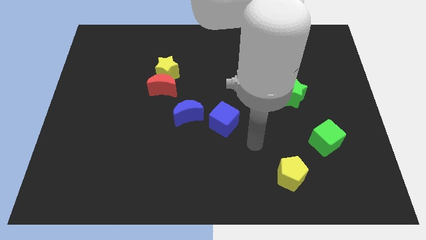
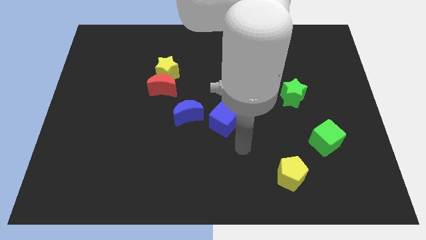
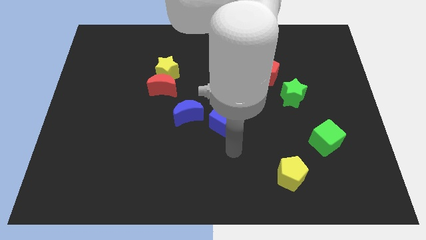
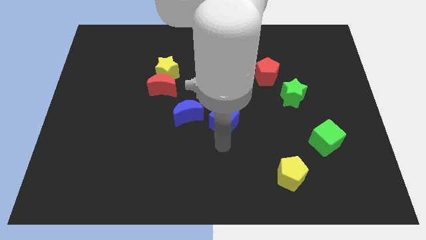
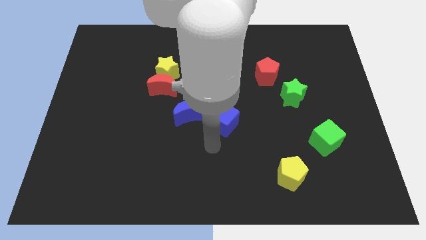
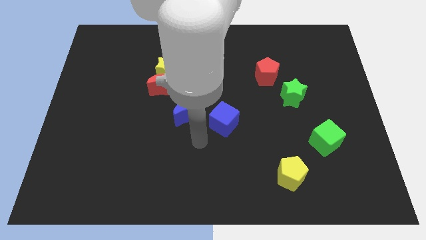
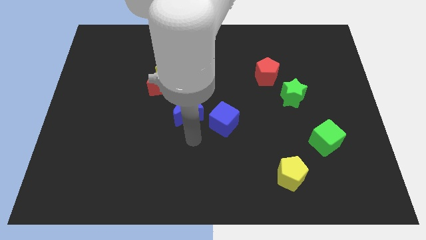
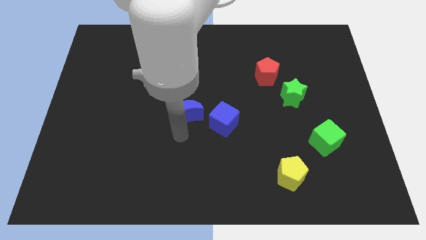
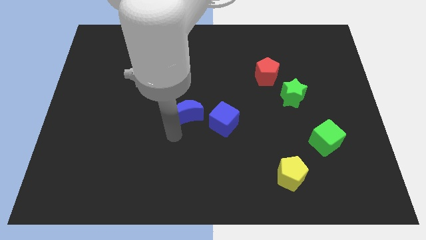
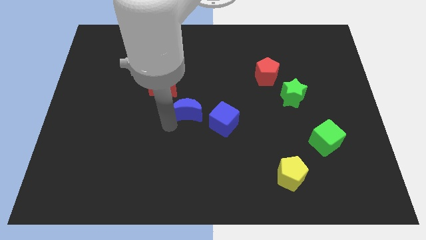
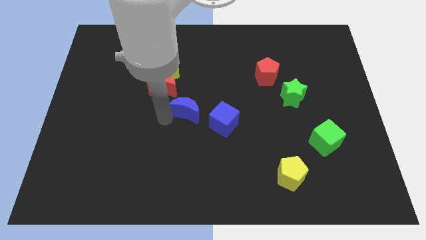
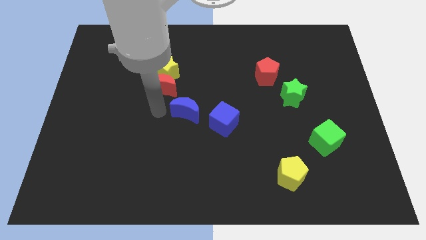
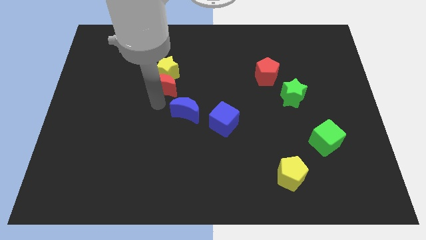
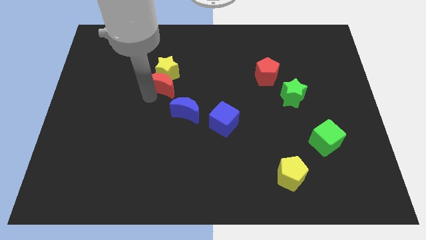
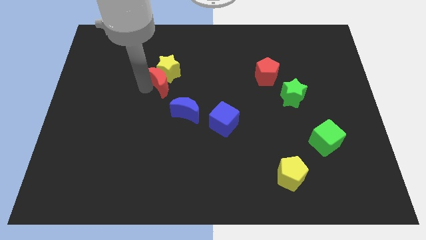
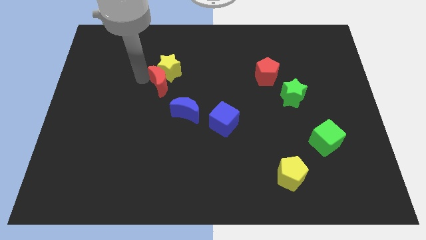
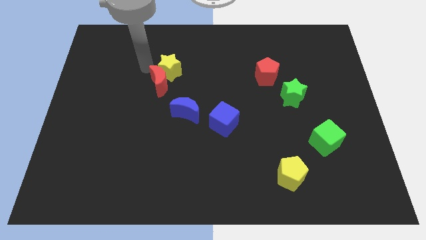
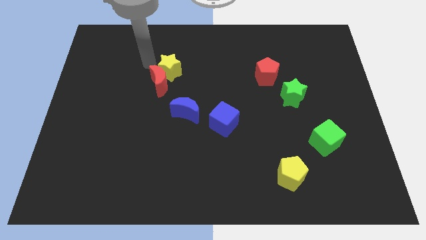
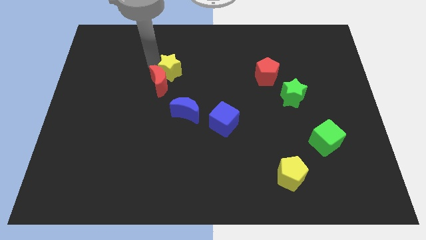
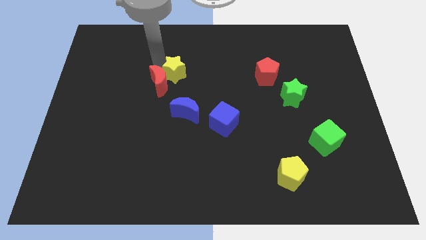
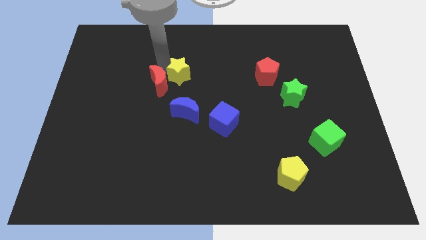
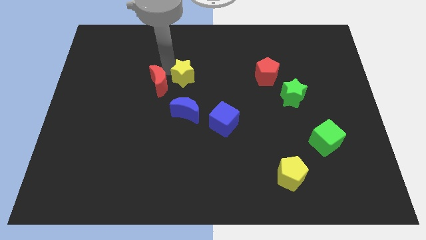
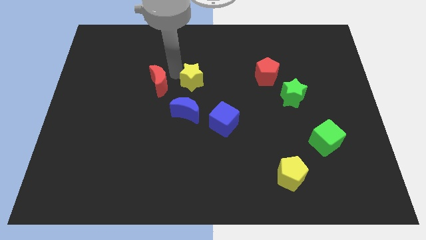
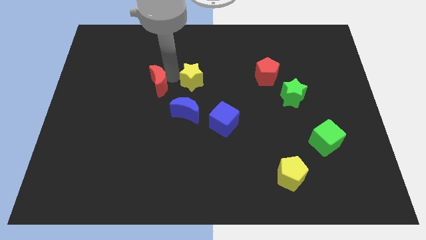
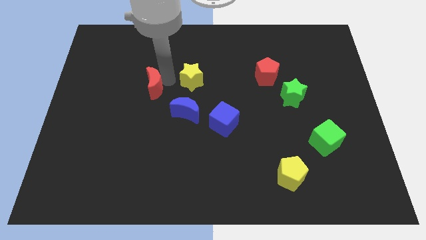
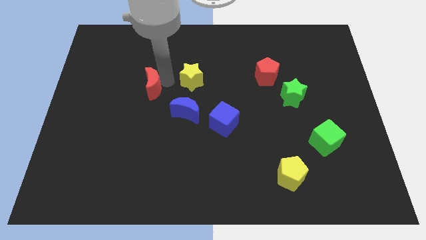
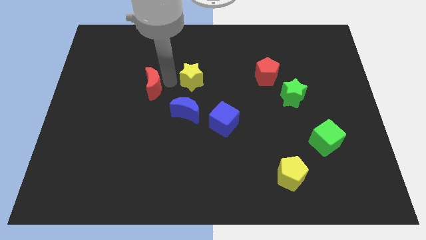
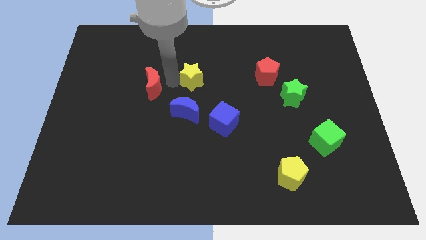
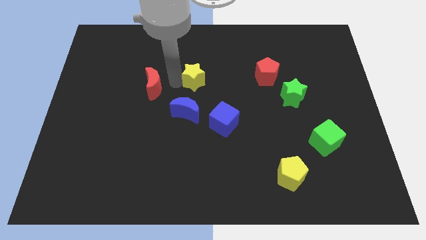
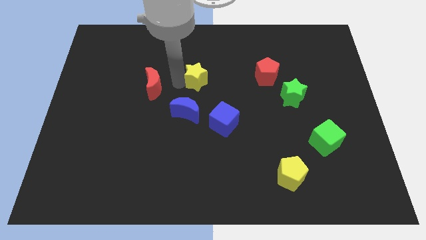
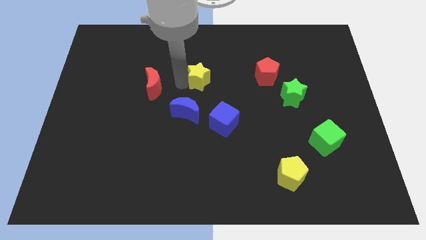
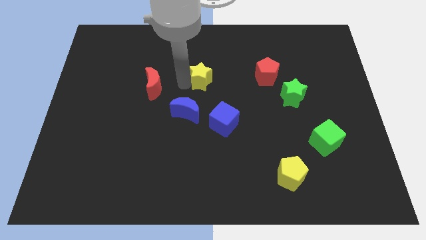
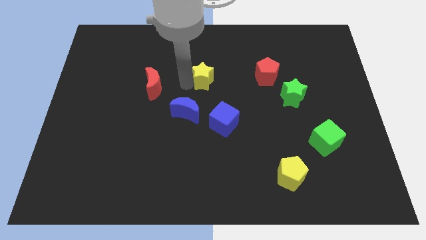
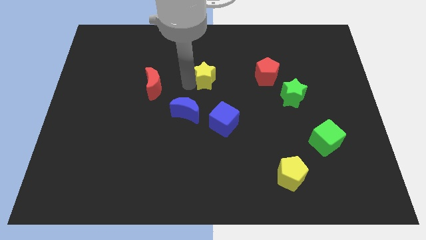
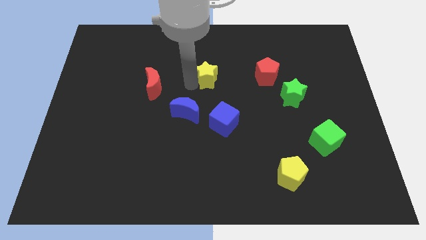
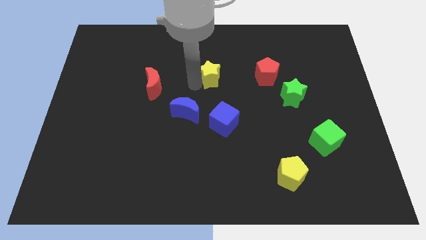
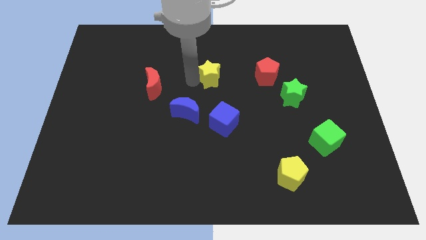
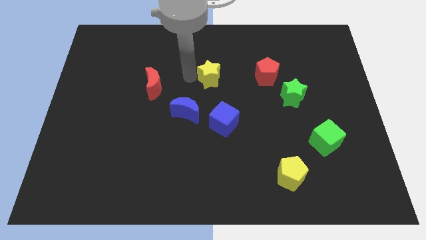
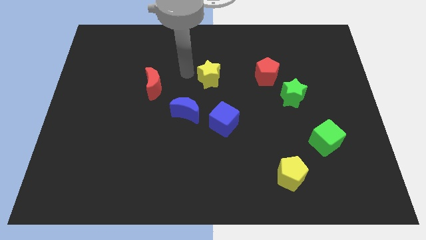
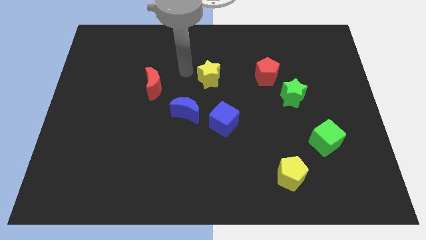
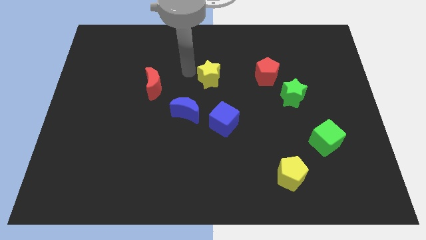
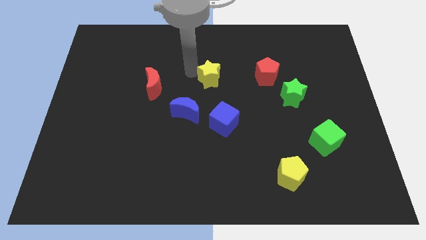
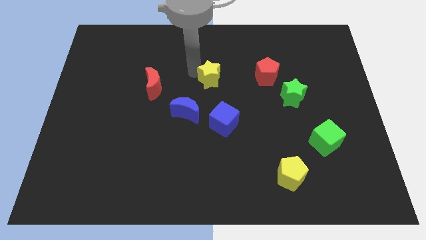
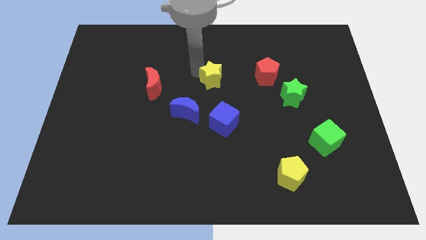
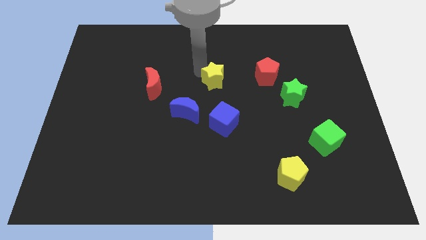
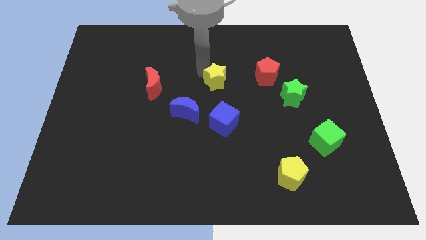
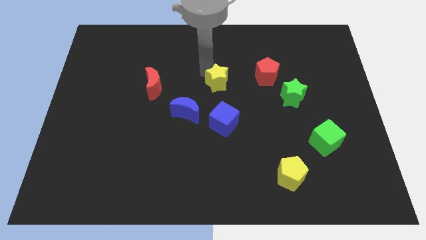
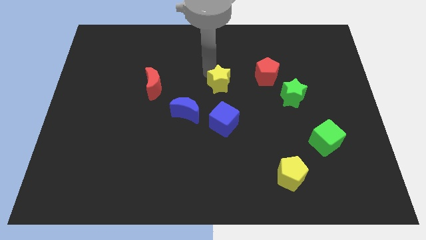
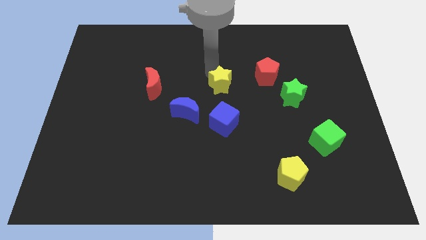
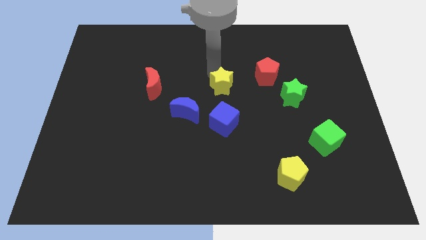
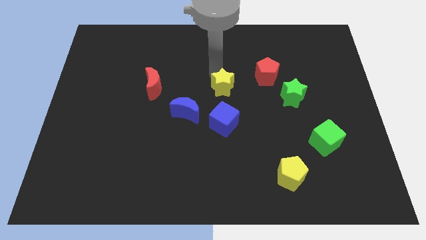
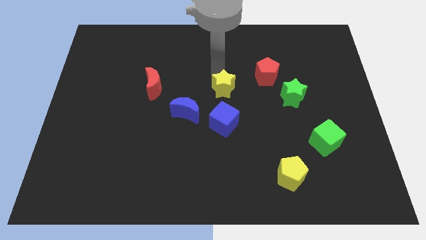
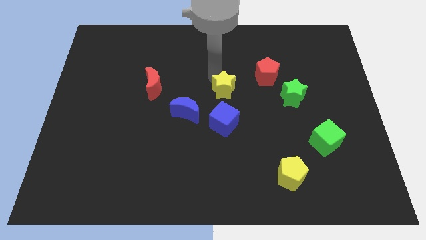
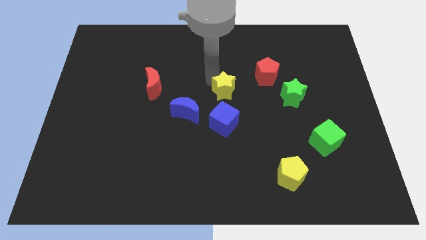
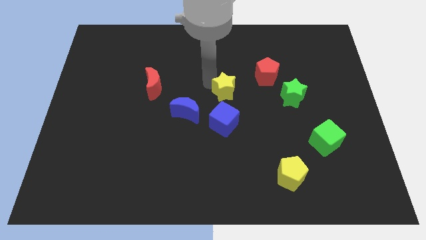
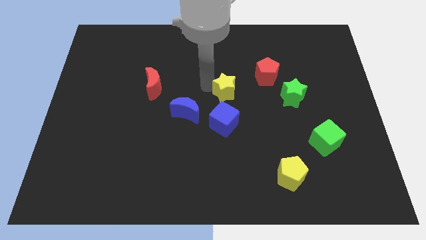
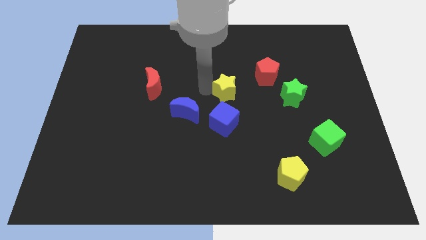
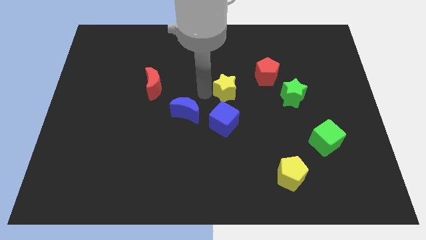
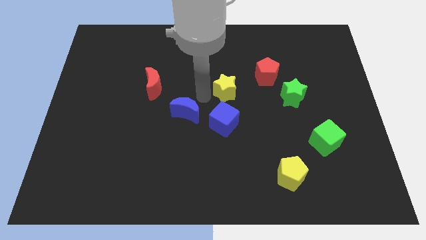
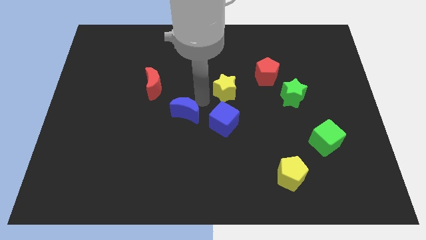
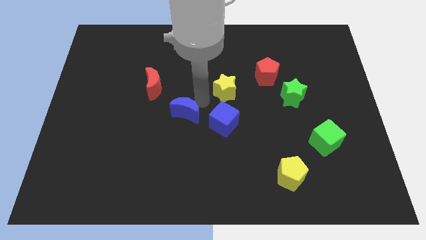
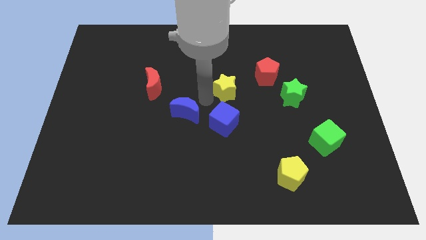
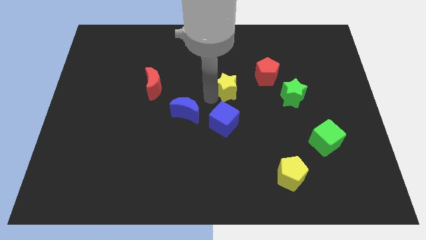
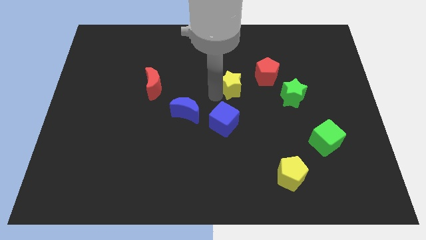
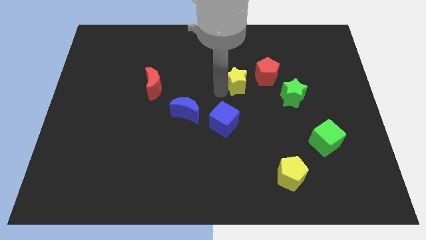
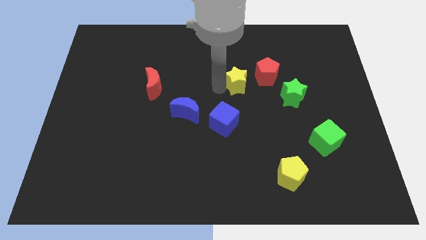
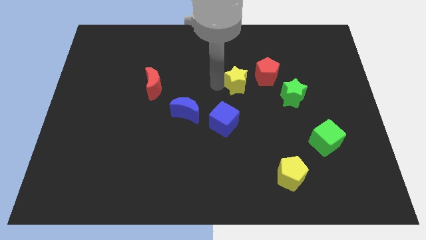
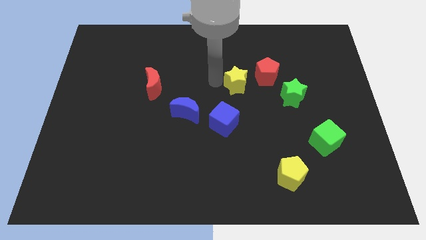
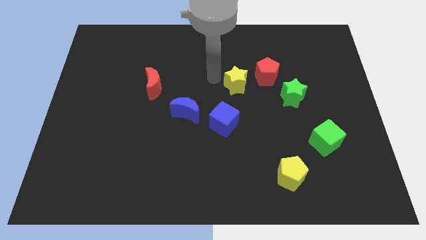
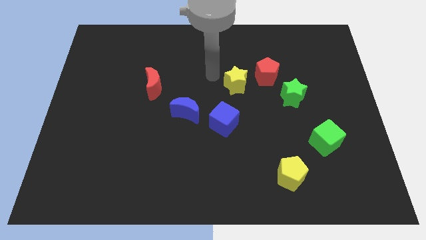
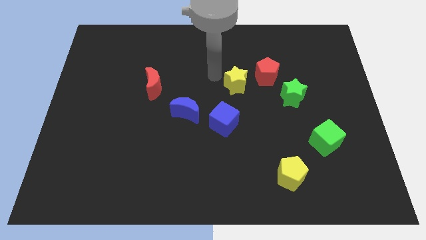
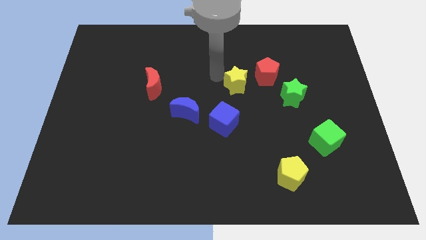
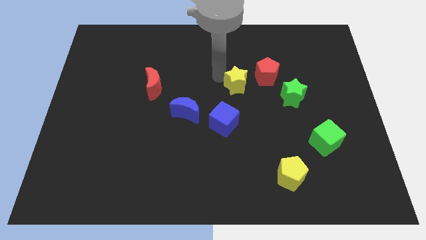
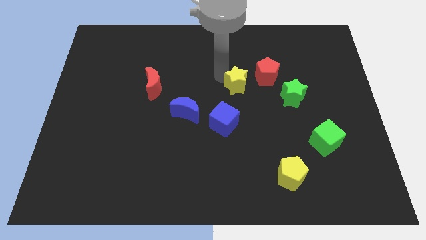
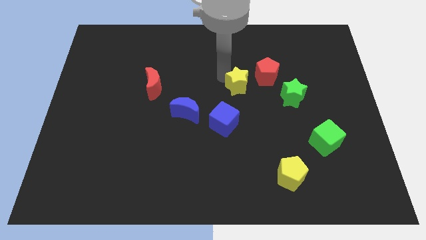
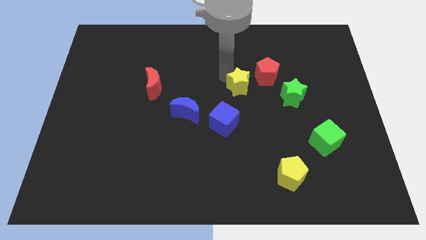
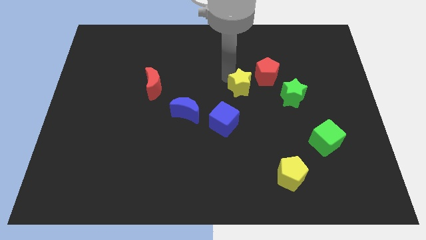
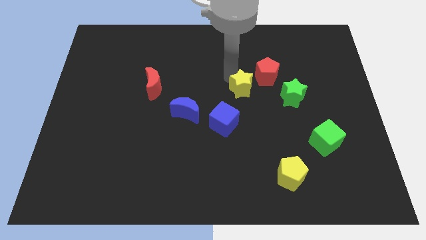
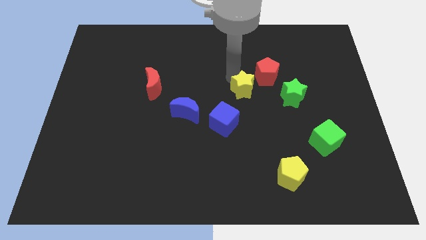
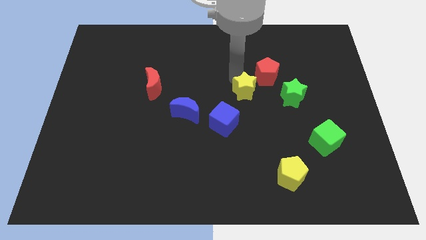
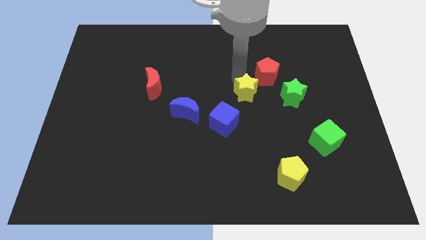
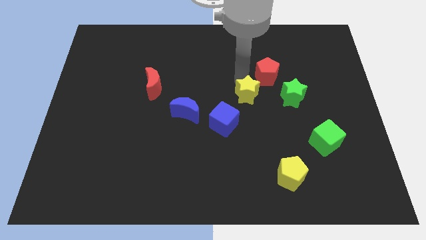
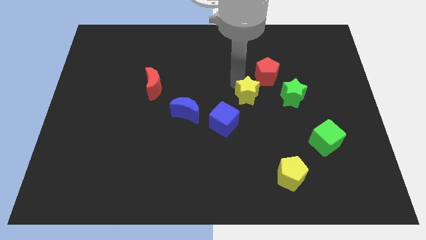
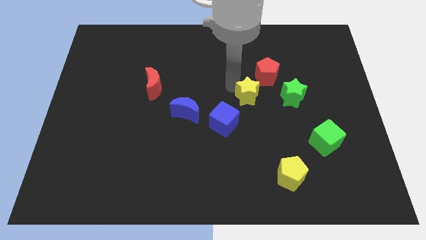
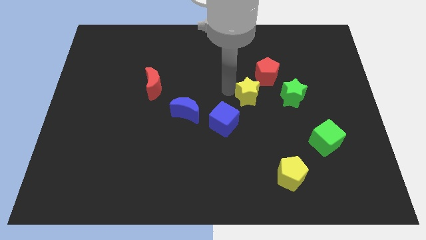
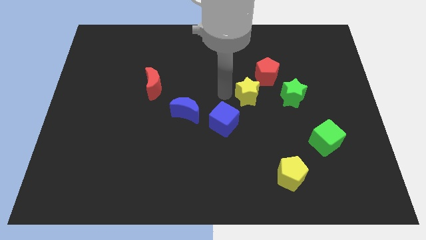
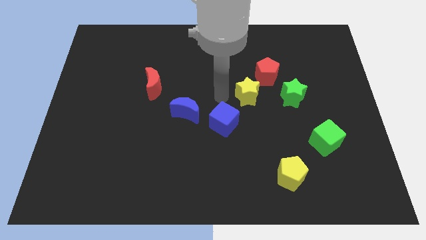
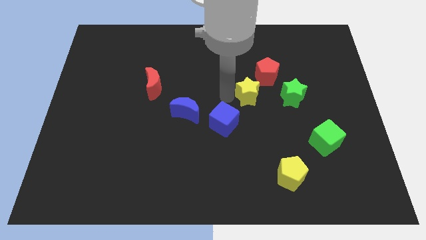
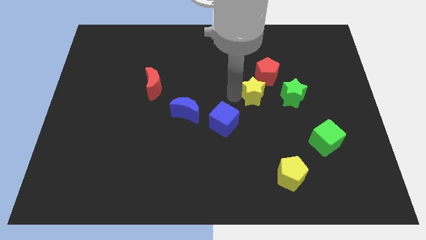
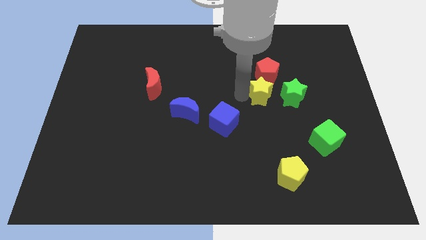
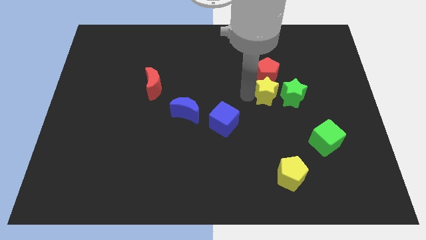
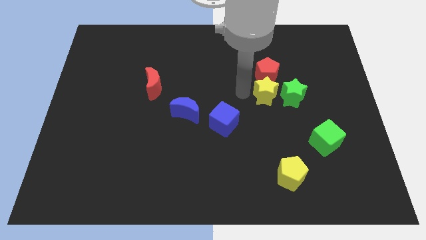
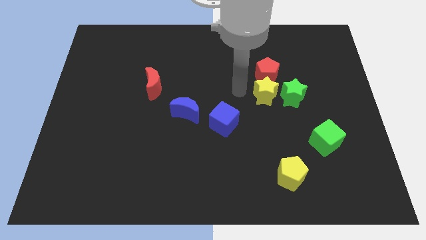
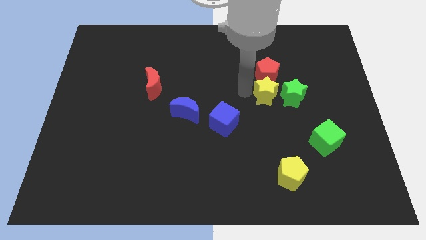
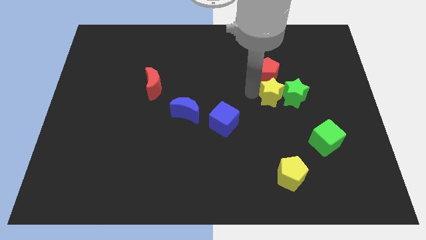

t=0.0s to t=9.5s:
put the yellow star next to the green star
